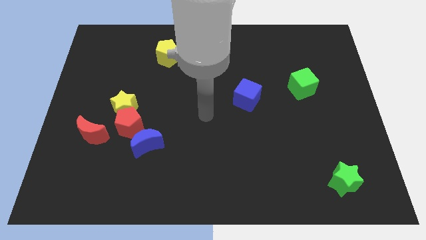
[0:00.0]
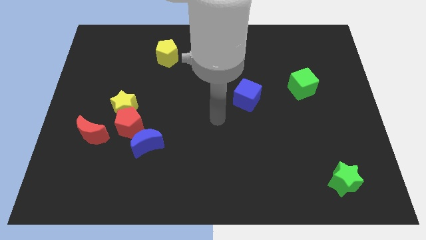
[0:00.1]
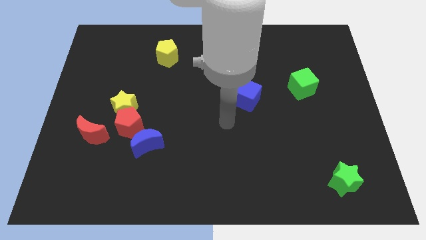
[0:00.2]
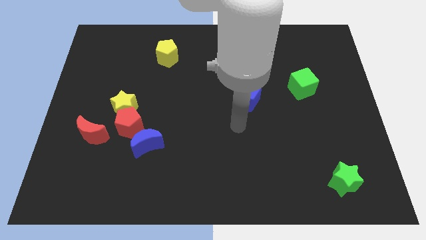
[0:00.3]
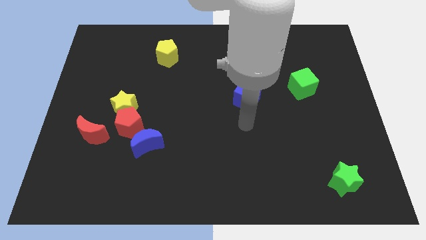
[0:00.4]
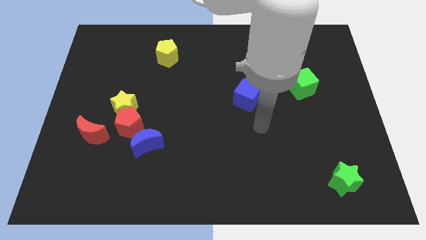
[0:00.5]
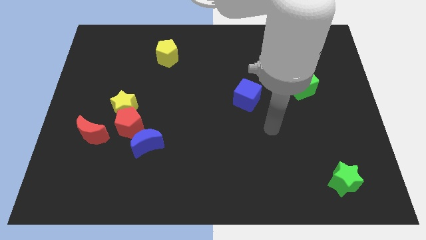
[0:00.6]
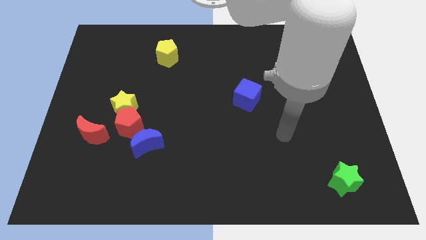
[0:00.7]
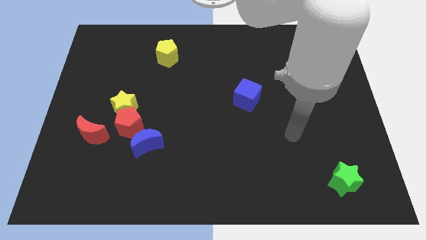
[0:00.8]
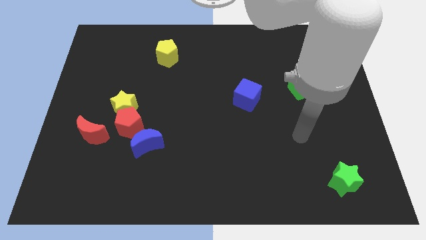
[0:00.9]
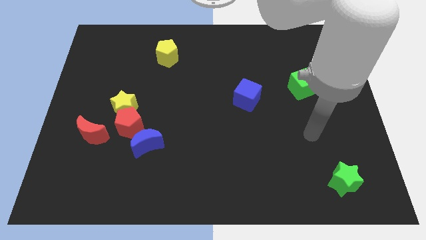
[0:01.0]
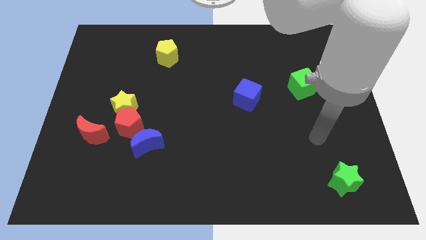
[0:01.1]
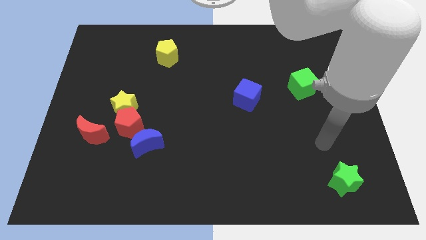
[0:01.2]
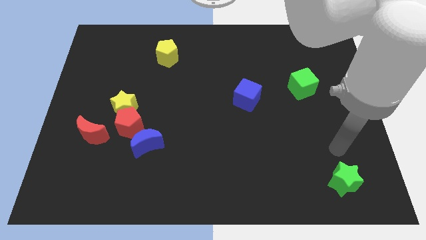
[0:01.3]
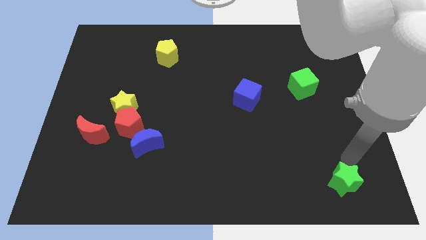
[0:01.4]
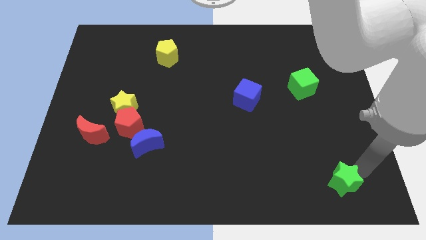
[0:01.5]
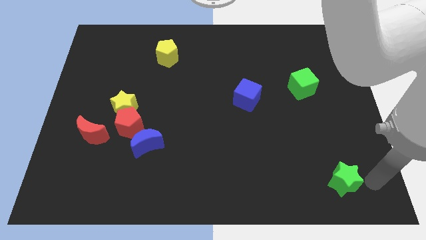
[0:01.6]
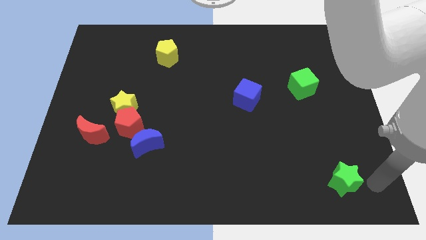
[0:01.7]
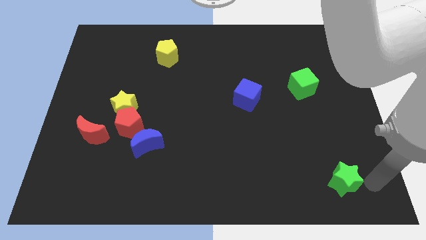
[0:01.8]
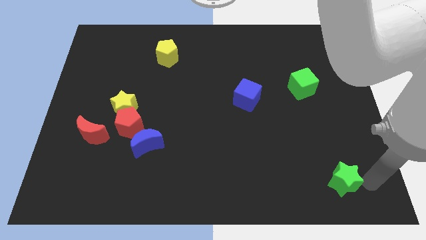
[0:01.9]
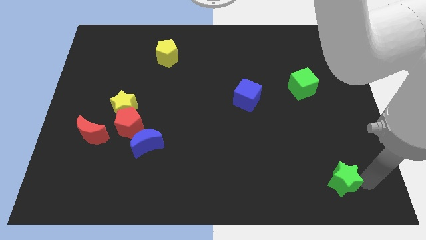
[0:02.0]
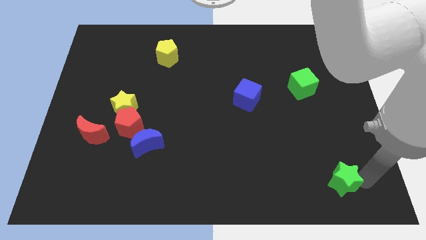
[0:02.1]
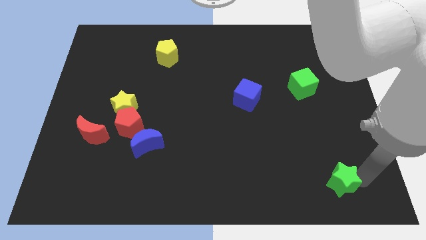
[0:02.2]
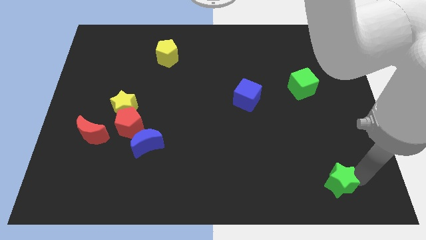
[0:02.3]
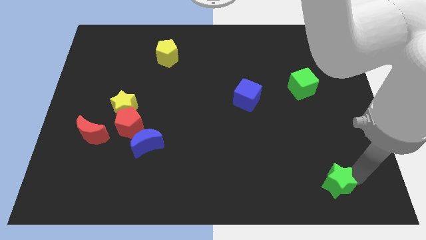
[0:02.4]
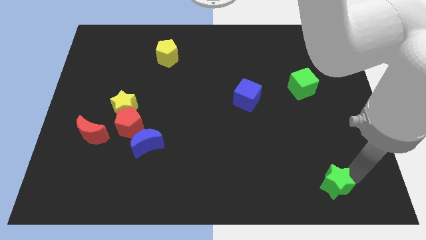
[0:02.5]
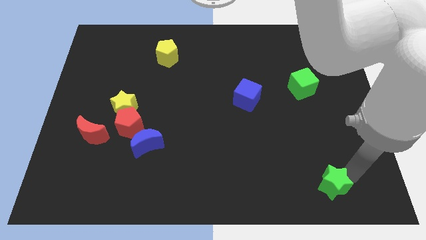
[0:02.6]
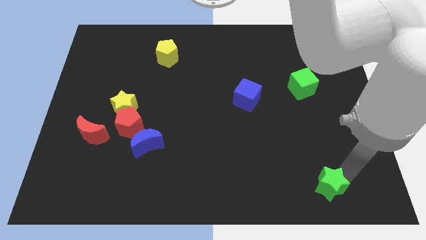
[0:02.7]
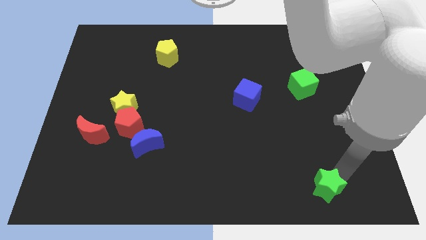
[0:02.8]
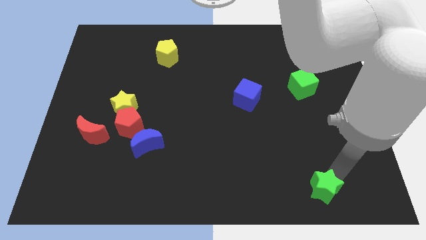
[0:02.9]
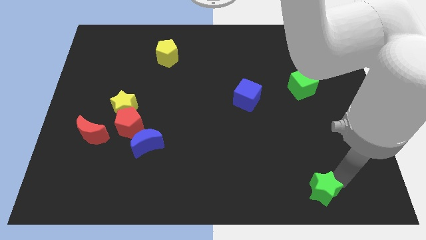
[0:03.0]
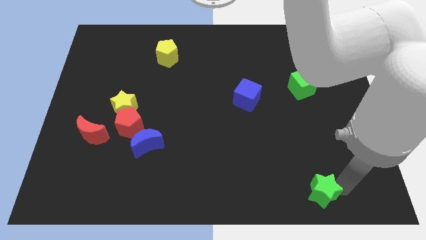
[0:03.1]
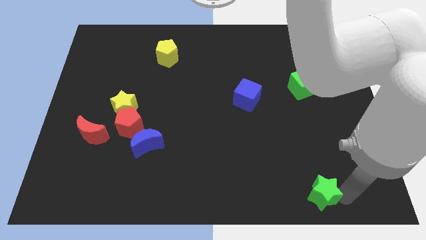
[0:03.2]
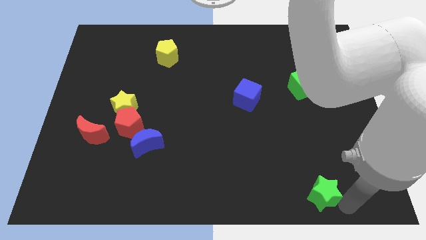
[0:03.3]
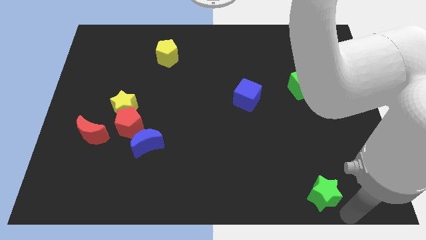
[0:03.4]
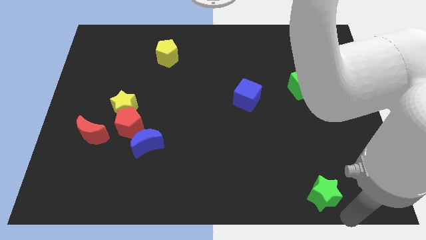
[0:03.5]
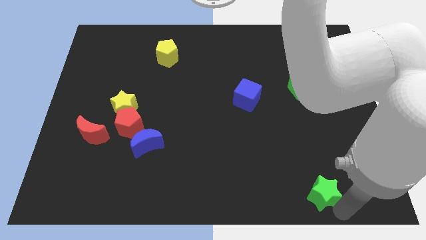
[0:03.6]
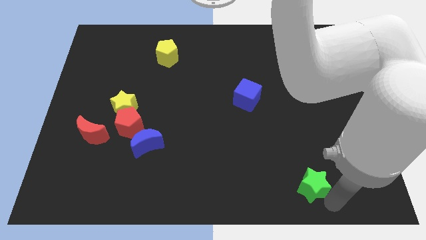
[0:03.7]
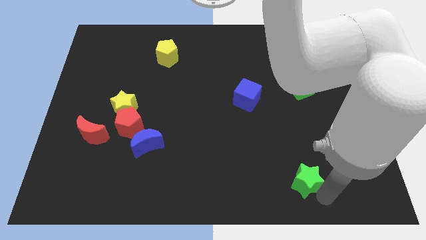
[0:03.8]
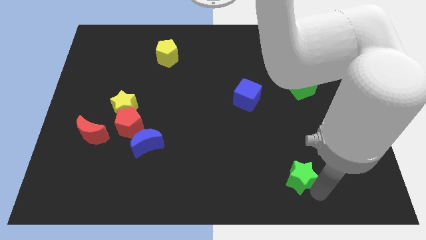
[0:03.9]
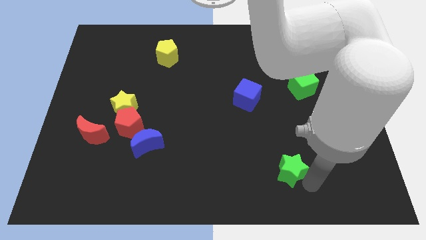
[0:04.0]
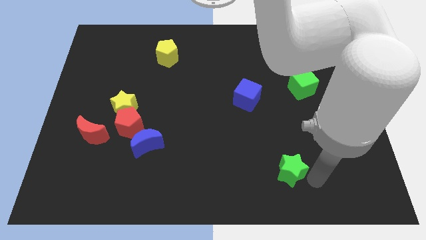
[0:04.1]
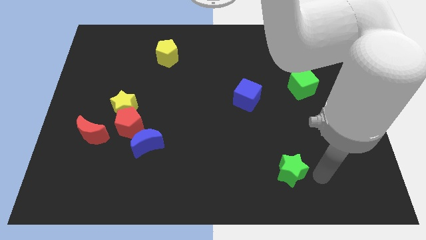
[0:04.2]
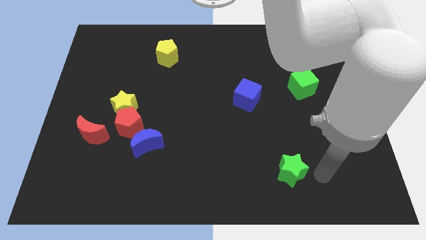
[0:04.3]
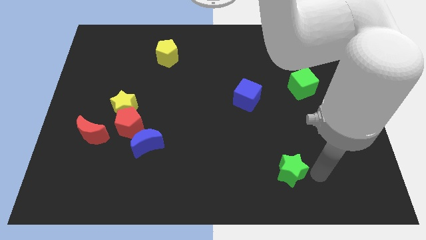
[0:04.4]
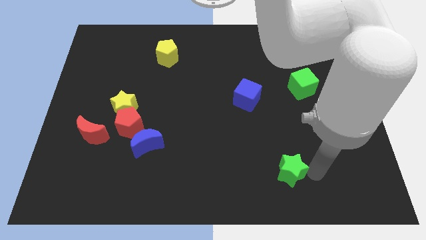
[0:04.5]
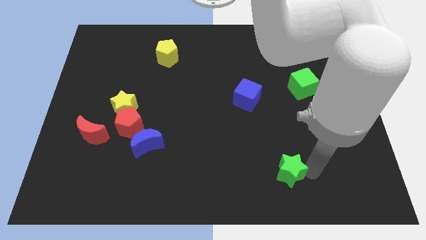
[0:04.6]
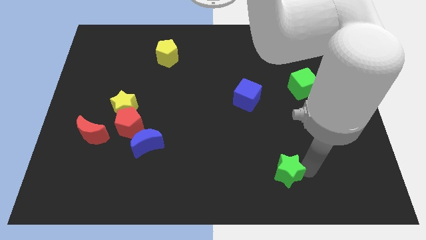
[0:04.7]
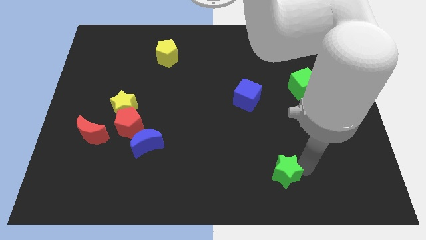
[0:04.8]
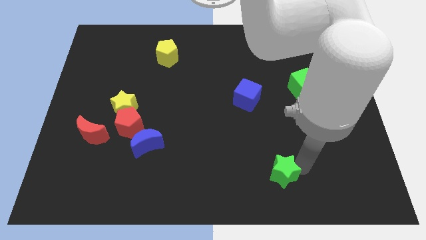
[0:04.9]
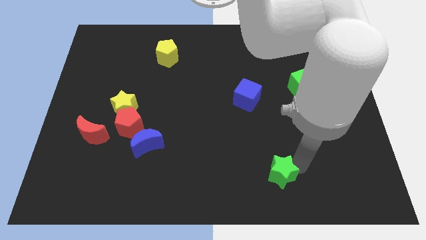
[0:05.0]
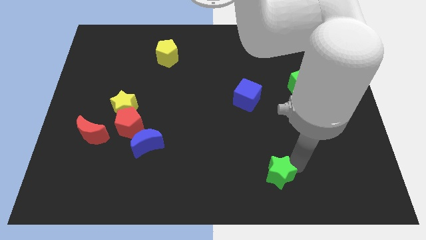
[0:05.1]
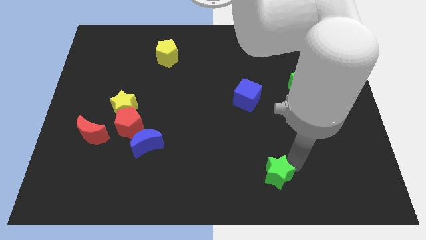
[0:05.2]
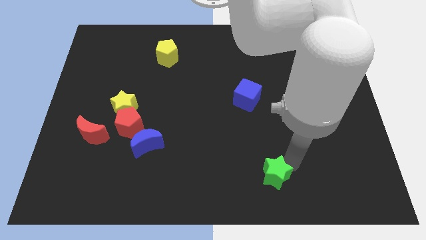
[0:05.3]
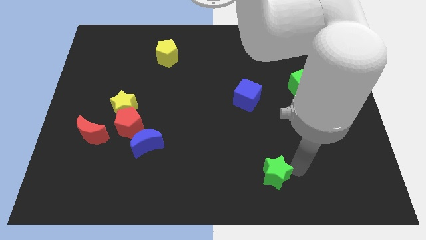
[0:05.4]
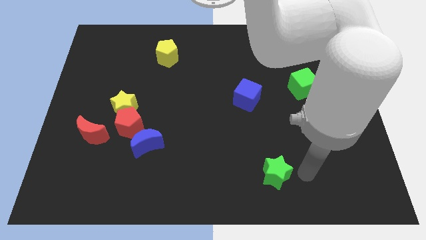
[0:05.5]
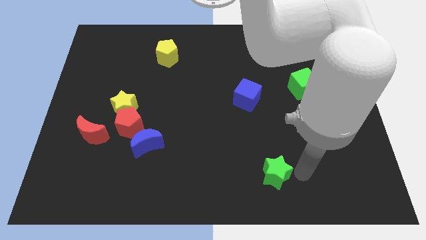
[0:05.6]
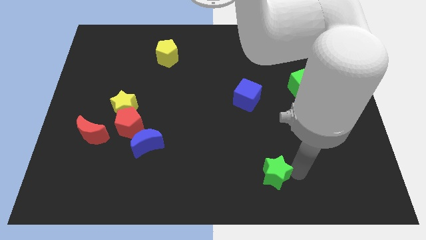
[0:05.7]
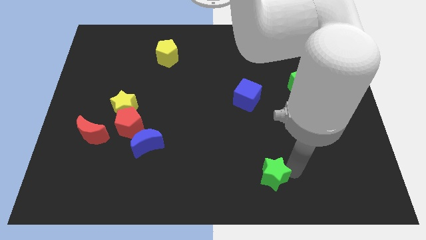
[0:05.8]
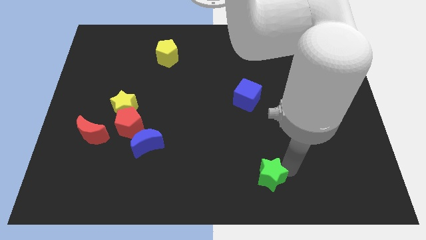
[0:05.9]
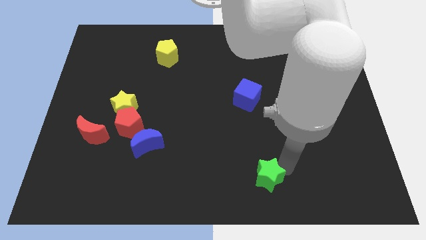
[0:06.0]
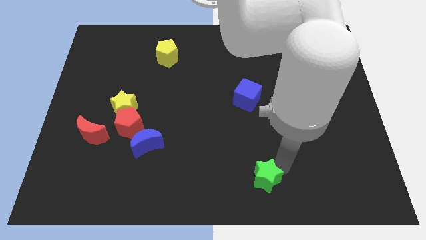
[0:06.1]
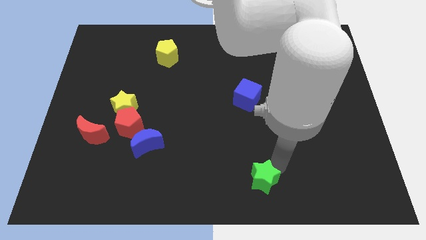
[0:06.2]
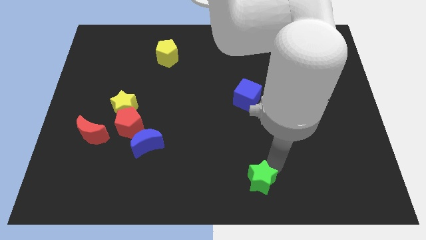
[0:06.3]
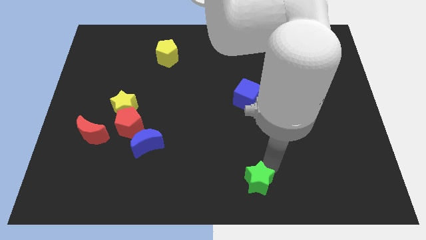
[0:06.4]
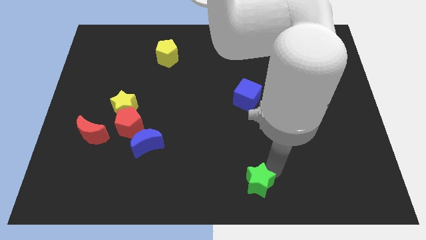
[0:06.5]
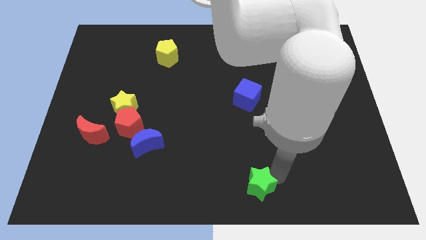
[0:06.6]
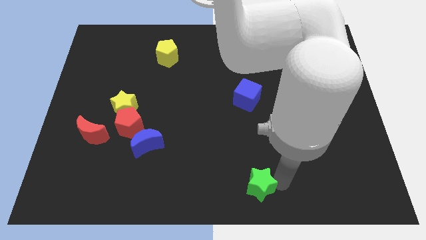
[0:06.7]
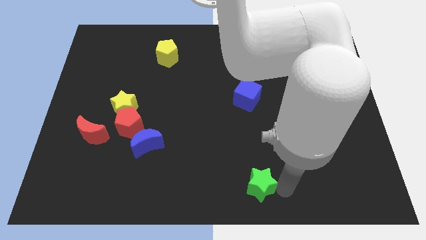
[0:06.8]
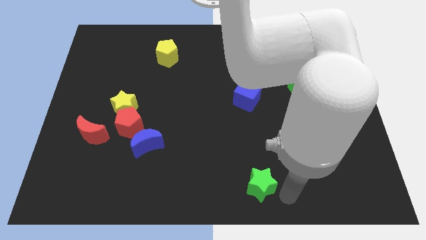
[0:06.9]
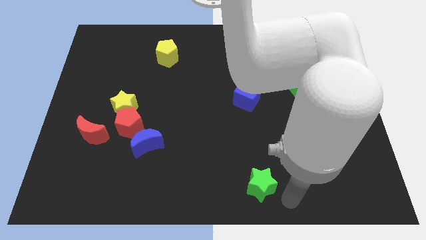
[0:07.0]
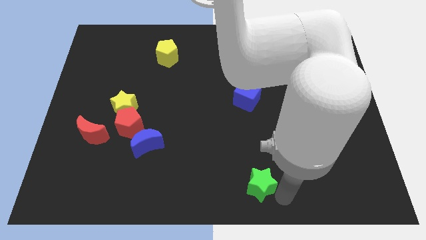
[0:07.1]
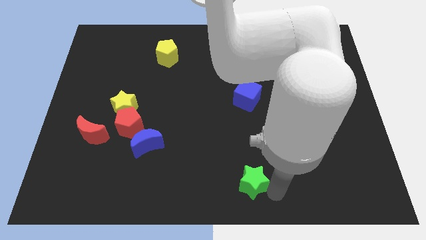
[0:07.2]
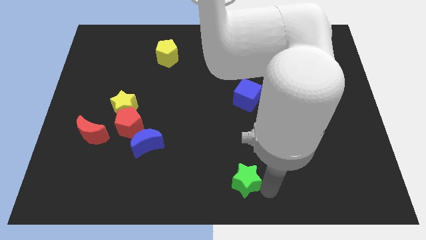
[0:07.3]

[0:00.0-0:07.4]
move the green star left

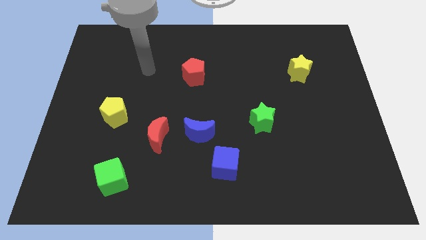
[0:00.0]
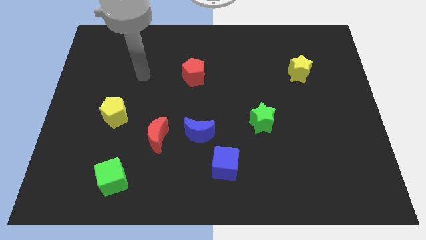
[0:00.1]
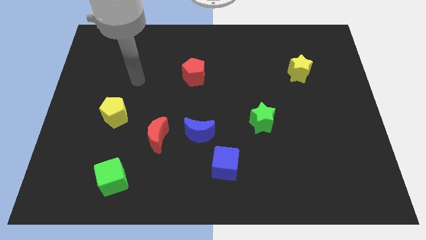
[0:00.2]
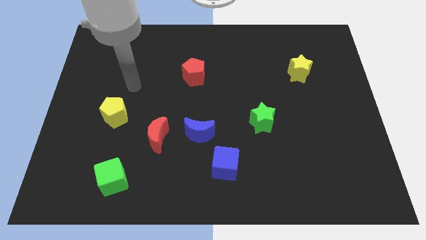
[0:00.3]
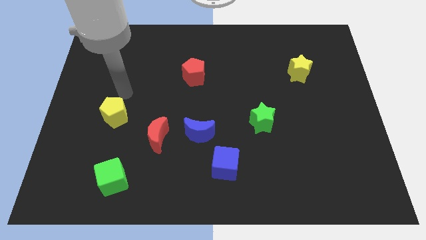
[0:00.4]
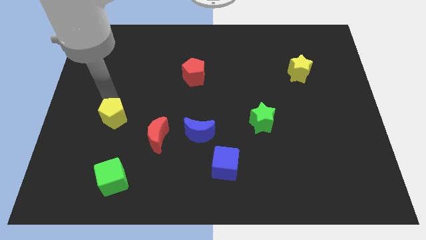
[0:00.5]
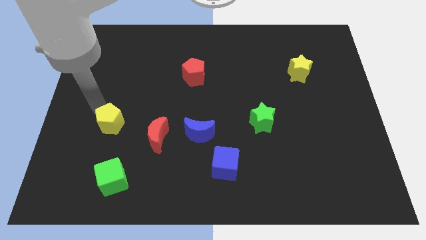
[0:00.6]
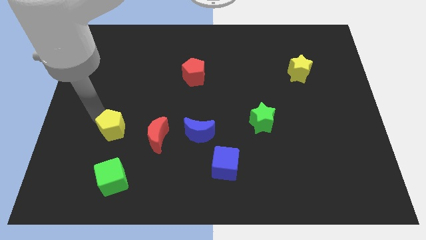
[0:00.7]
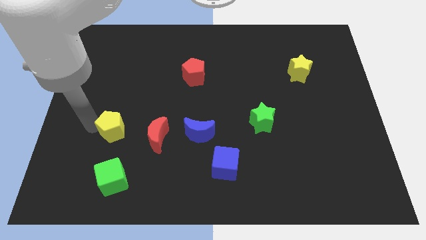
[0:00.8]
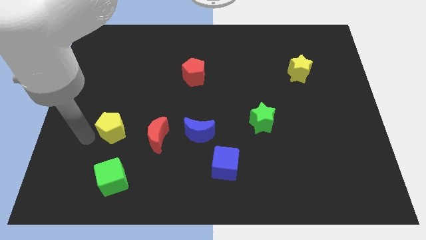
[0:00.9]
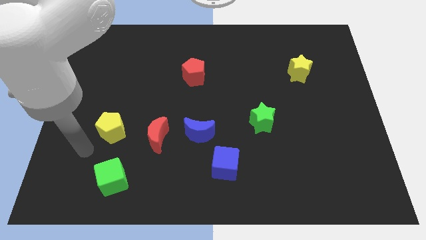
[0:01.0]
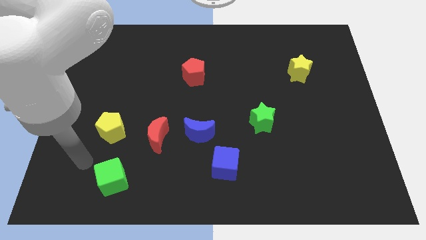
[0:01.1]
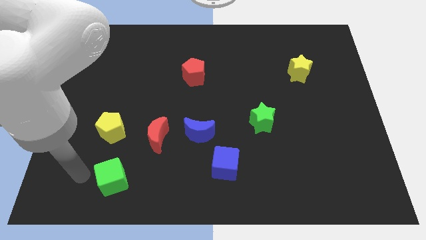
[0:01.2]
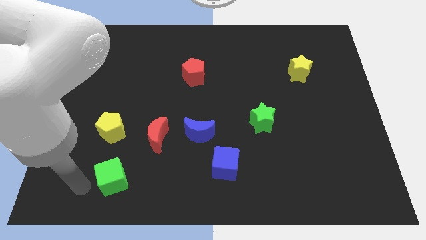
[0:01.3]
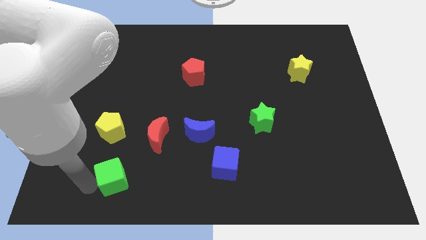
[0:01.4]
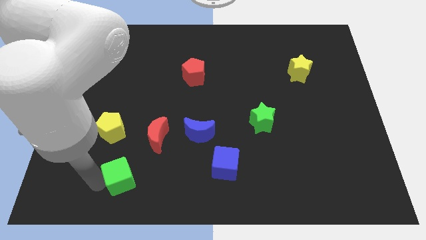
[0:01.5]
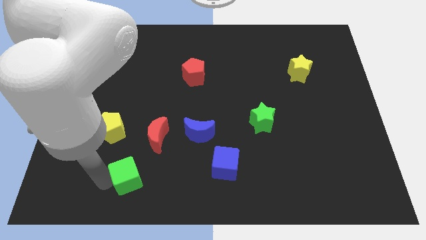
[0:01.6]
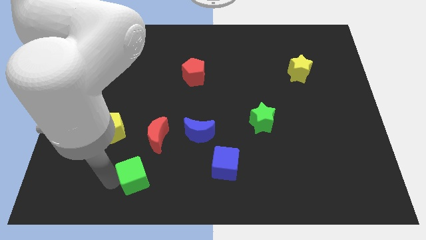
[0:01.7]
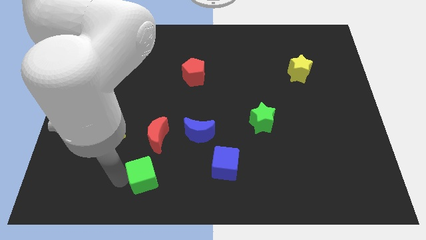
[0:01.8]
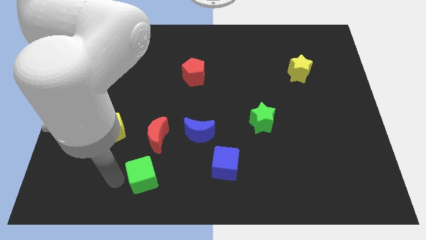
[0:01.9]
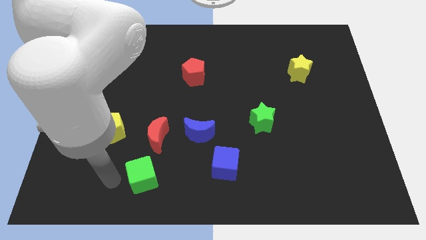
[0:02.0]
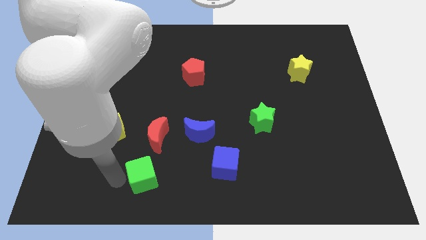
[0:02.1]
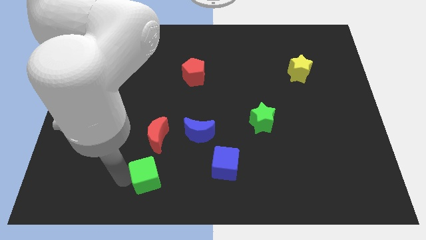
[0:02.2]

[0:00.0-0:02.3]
slide the green cube somewhat right
